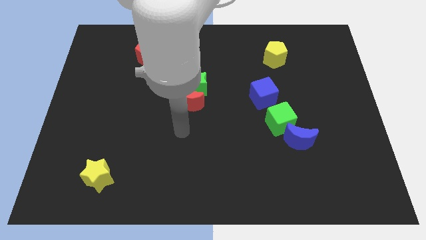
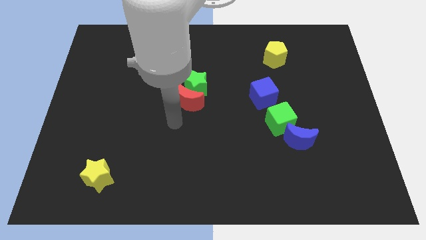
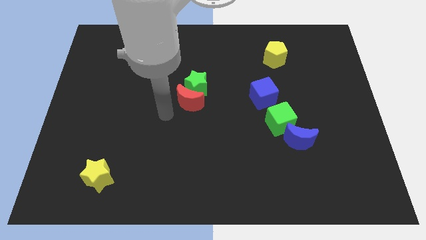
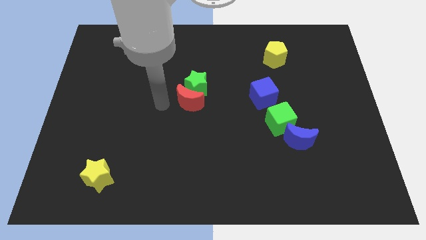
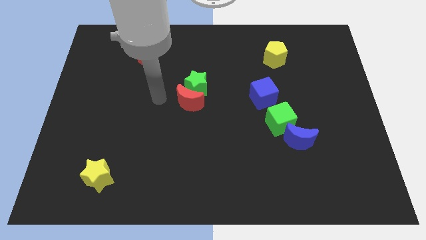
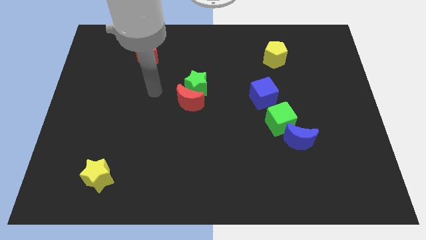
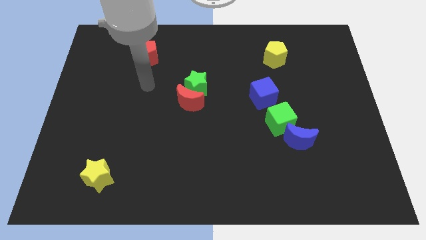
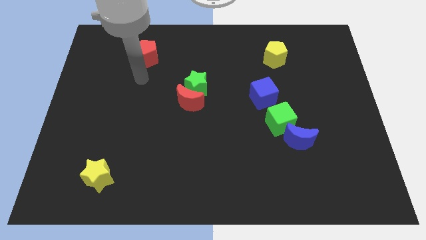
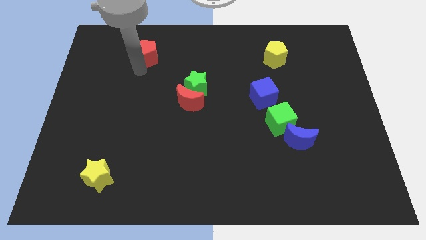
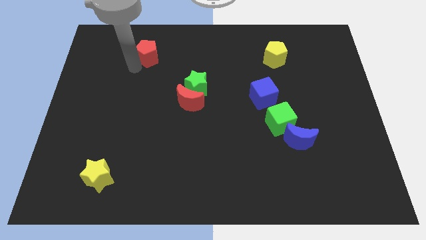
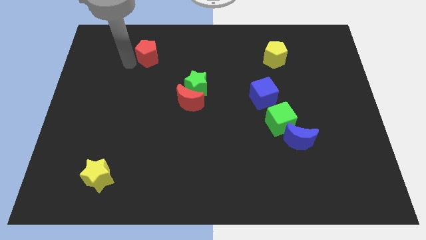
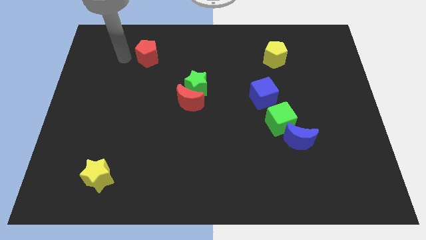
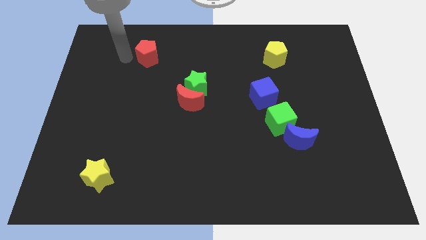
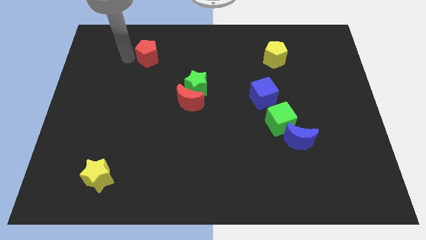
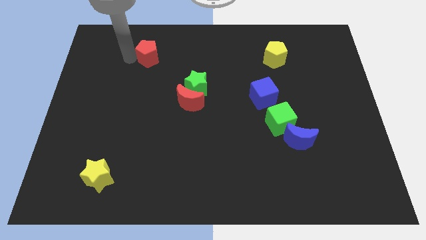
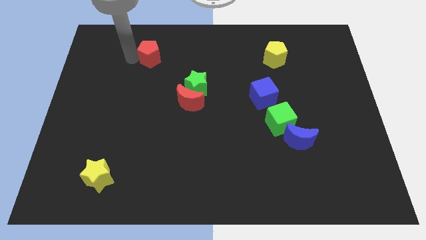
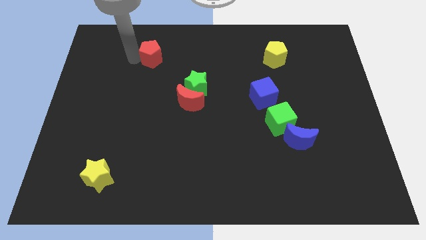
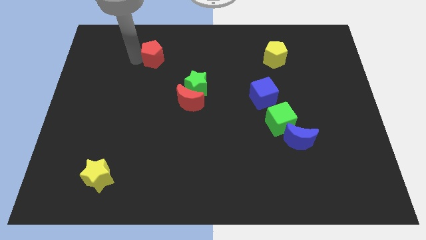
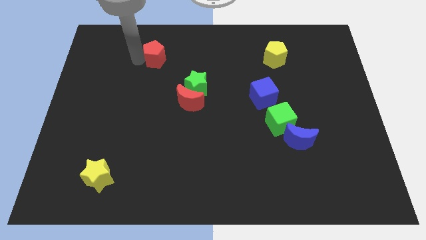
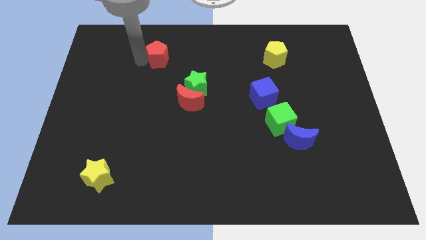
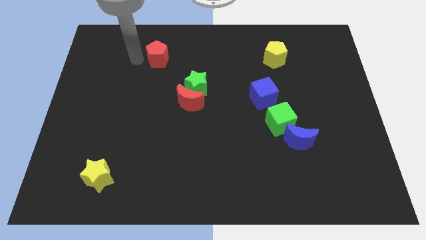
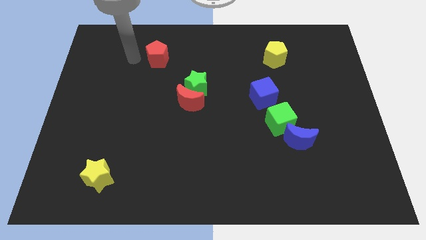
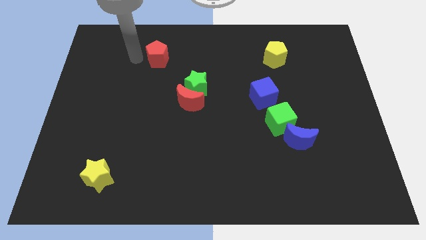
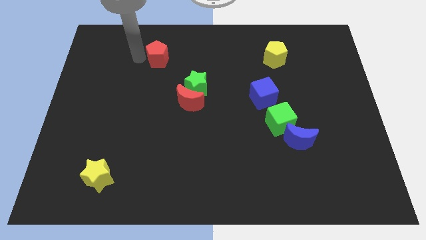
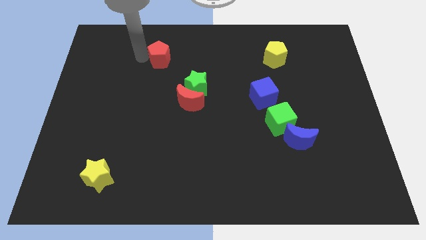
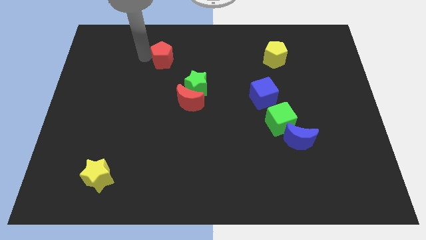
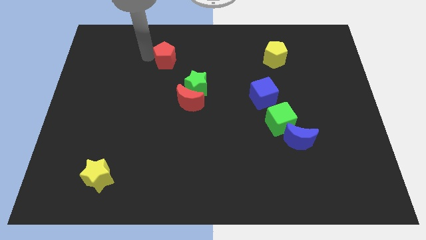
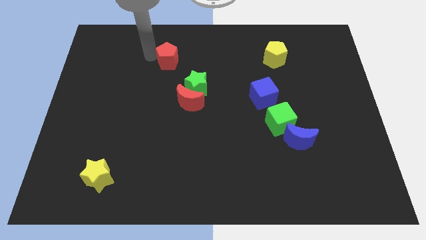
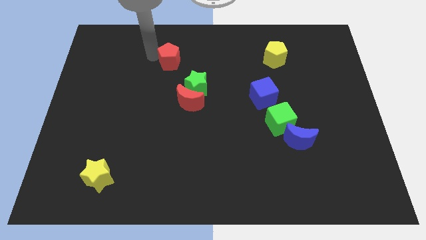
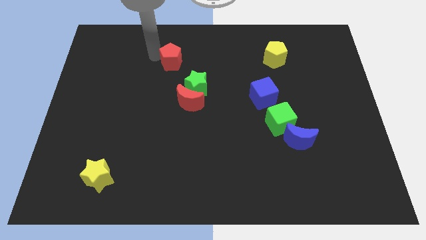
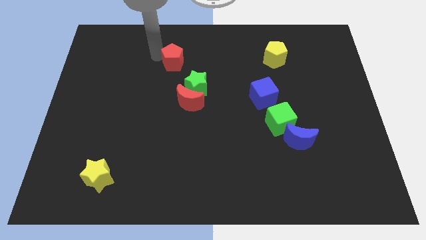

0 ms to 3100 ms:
slide the red pentagon a bit to the right

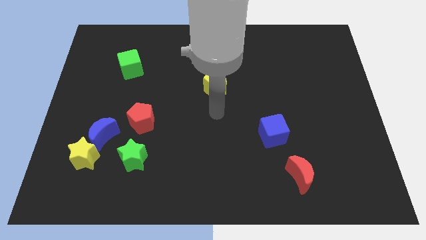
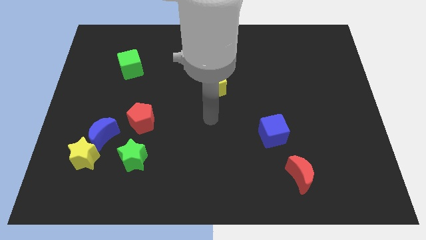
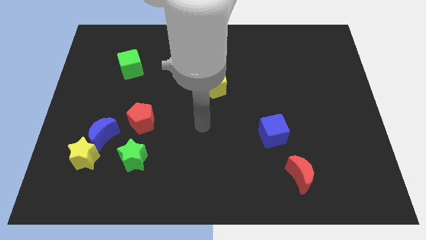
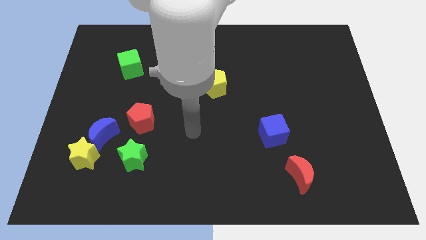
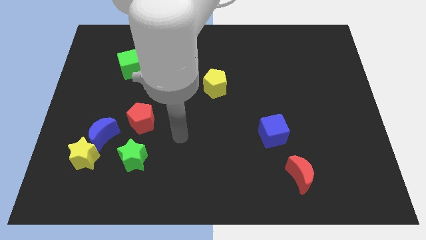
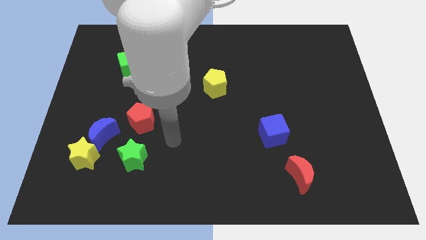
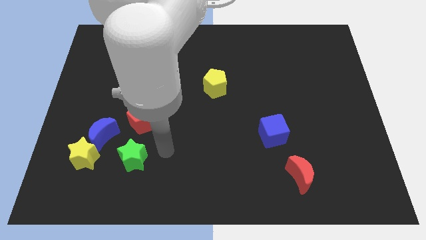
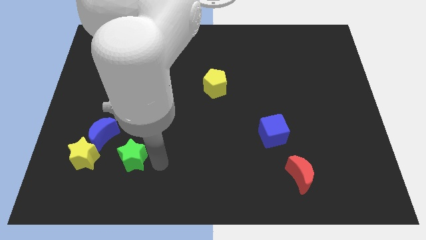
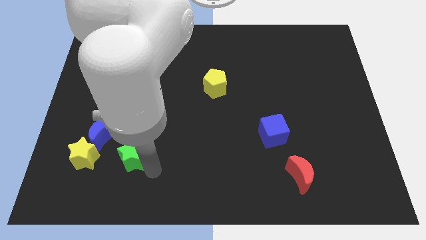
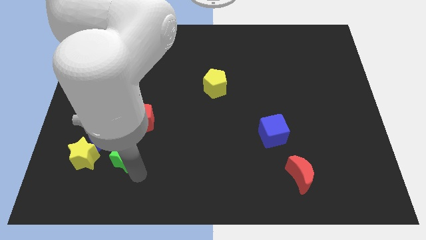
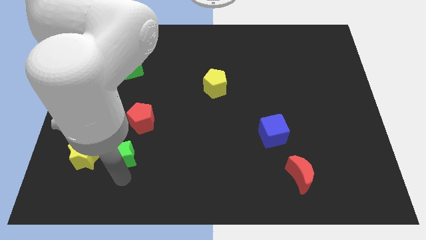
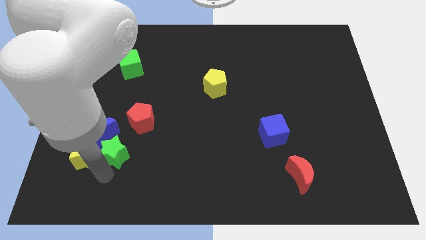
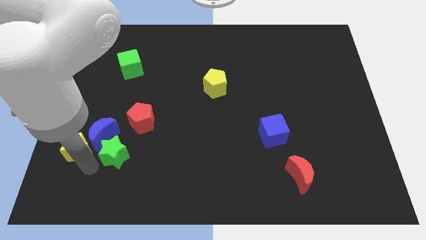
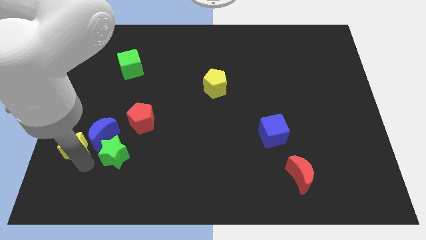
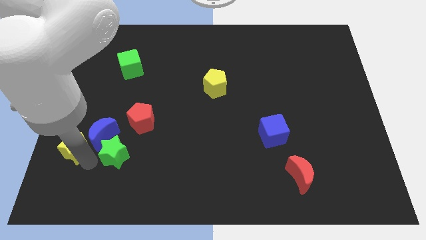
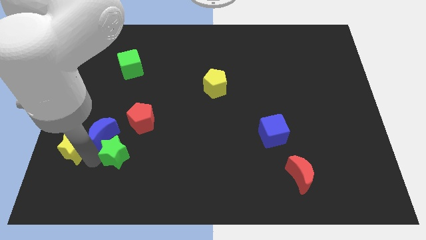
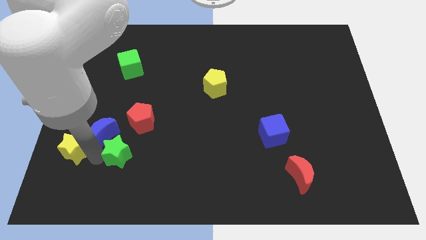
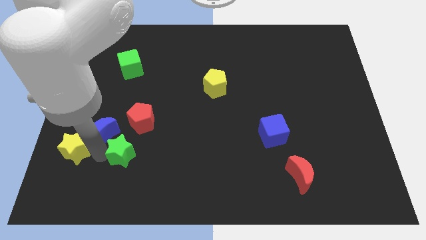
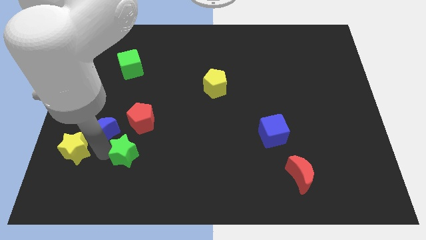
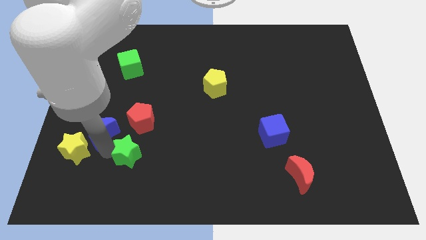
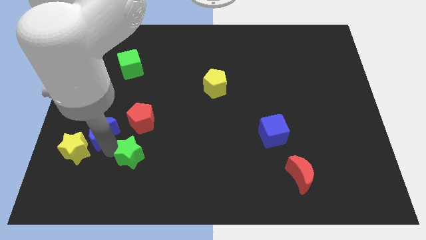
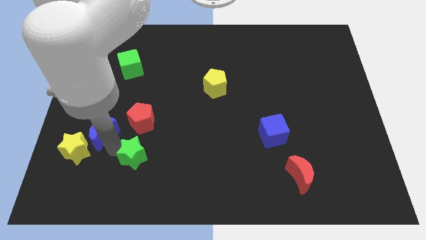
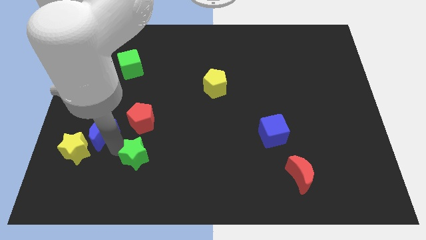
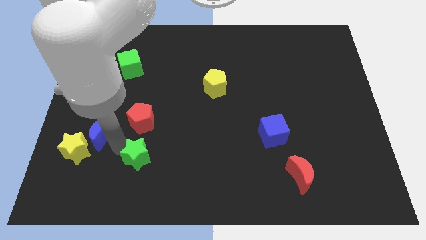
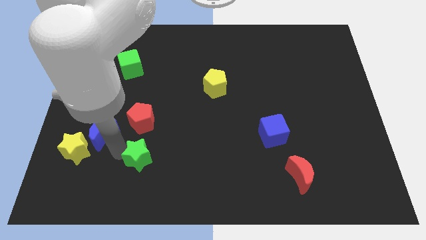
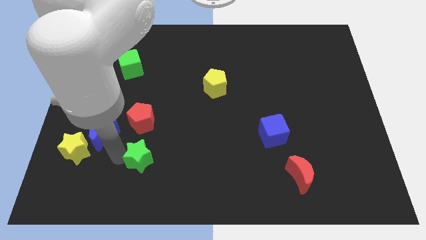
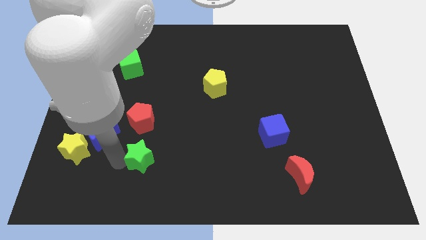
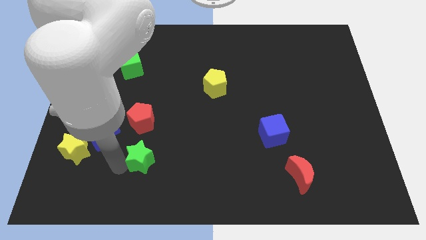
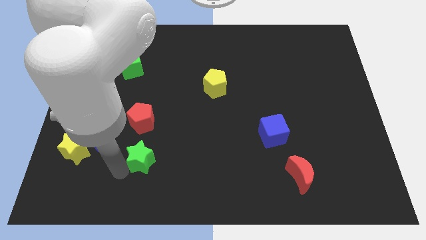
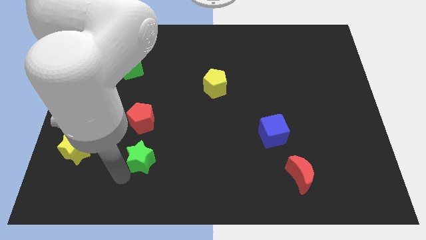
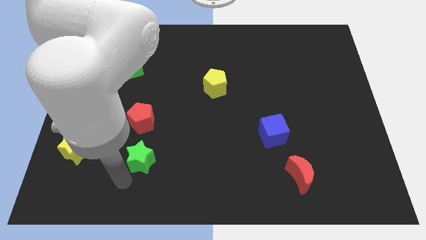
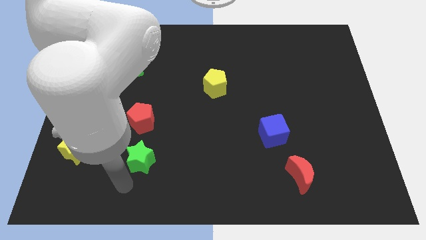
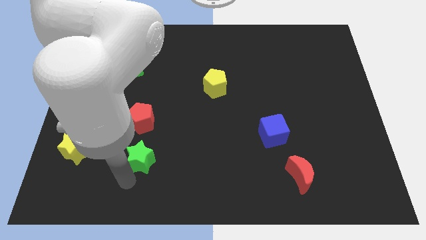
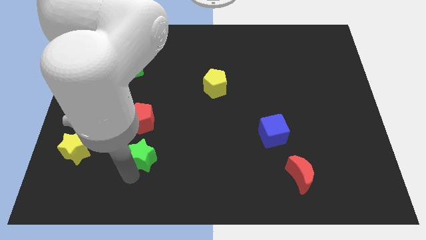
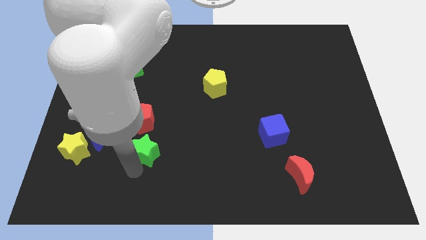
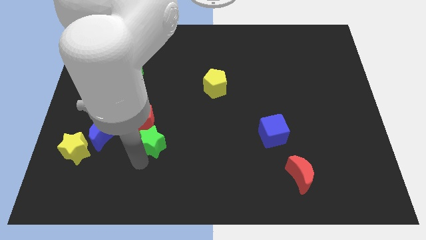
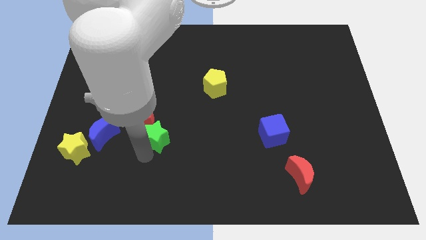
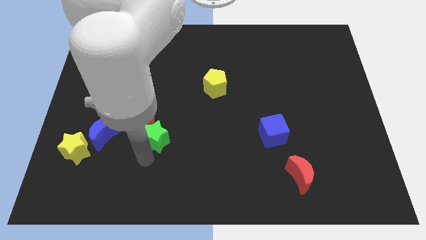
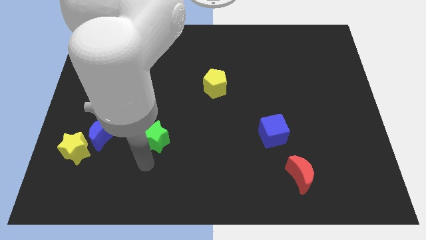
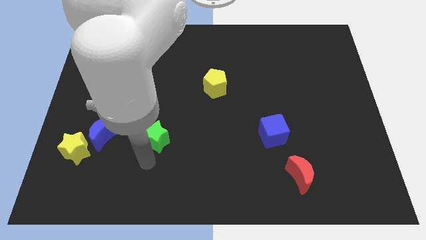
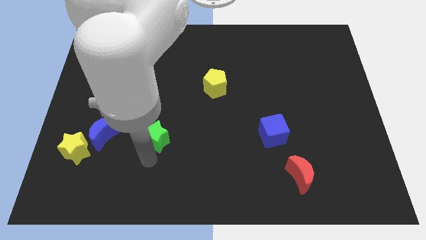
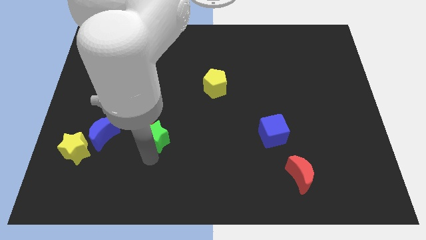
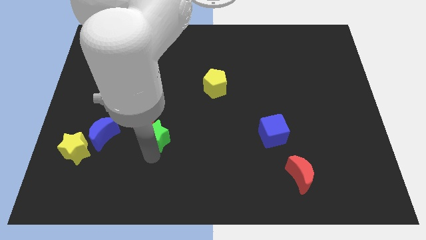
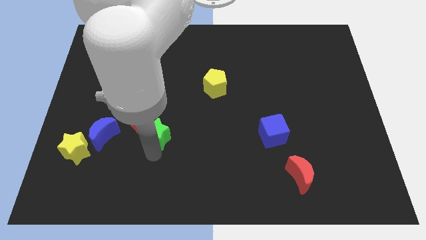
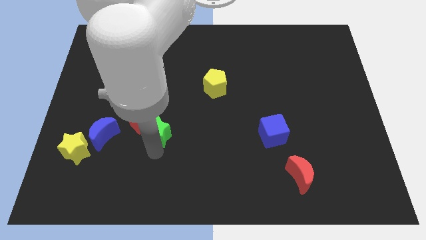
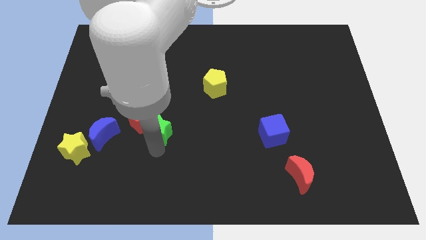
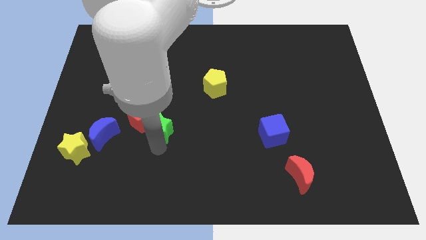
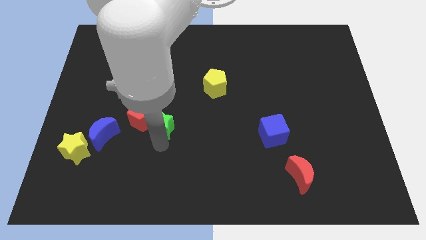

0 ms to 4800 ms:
slightly push the green star upwards

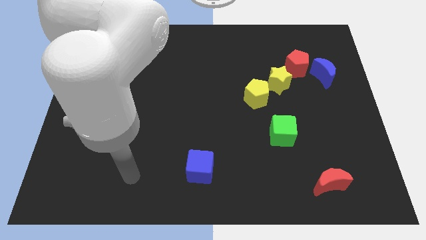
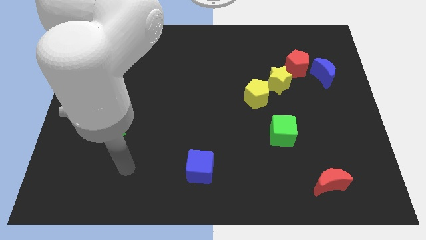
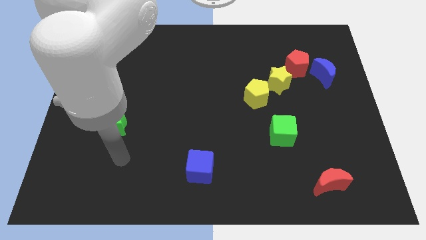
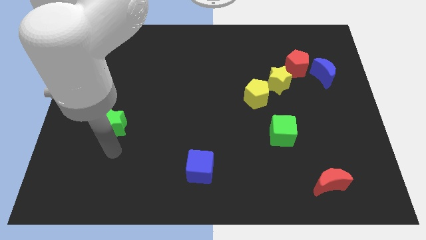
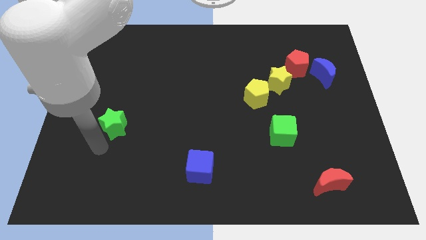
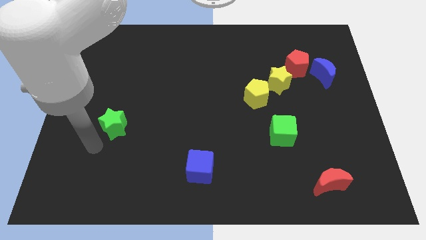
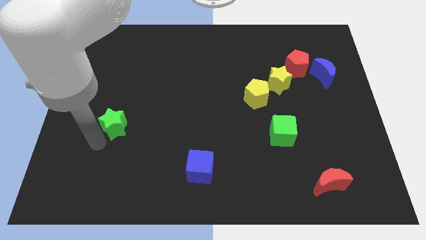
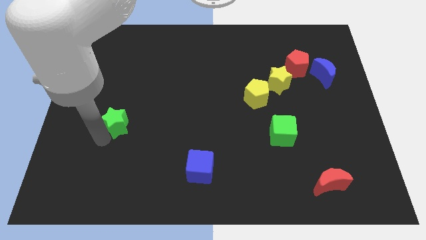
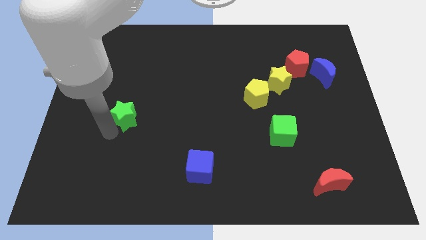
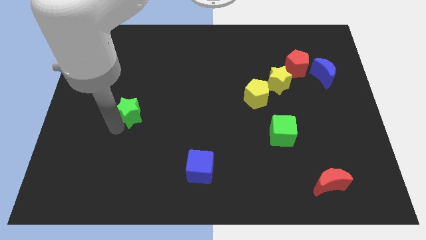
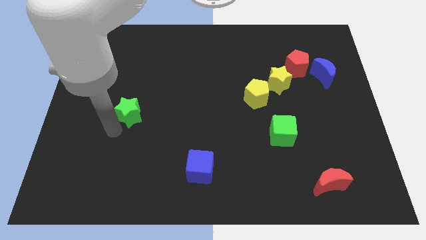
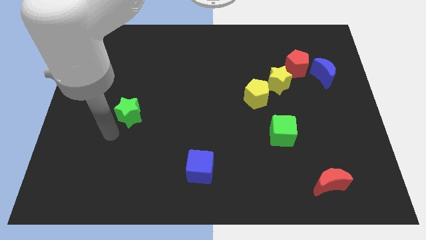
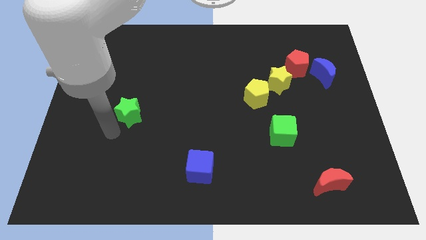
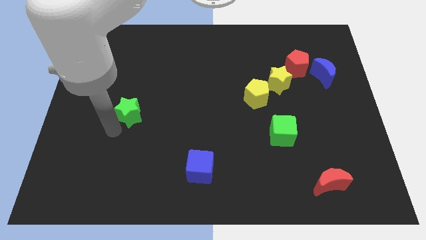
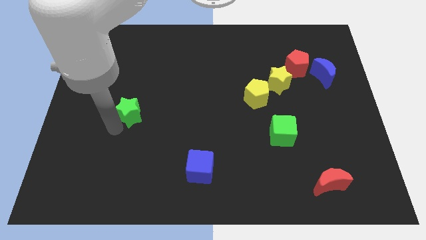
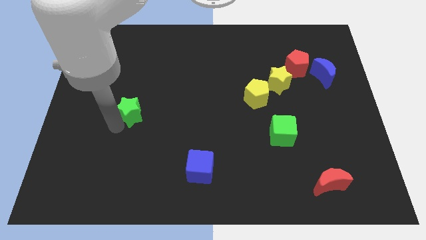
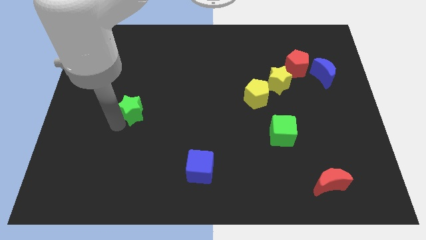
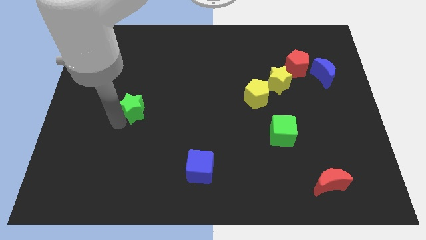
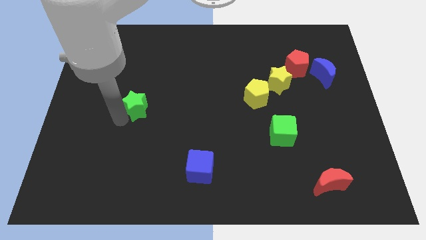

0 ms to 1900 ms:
slightly slide the green star diagonally up and to the right
